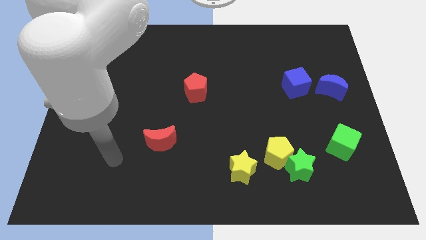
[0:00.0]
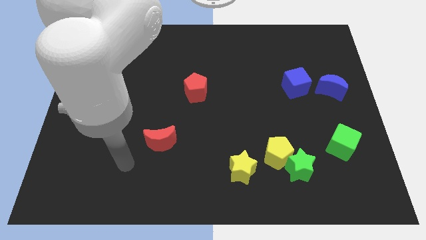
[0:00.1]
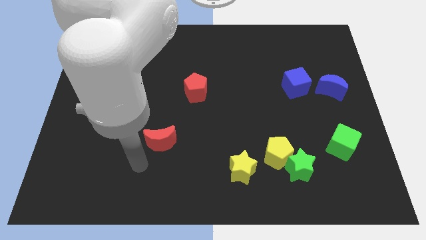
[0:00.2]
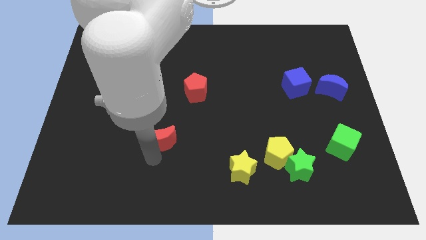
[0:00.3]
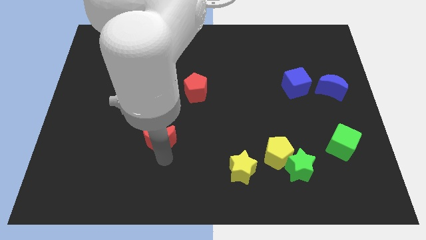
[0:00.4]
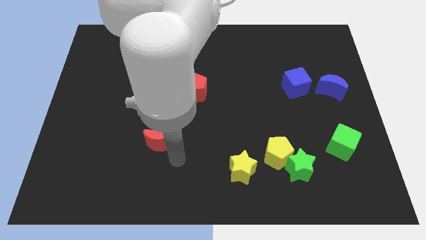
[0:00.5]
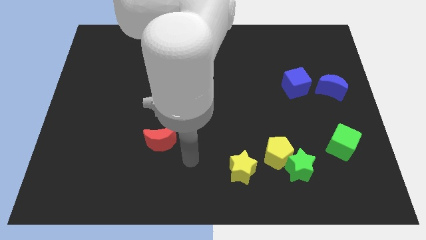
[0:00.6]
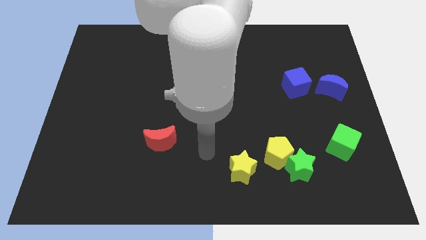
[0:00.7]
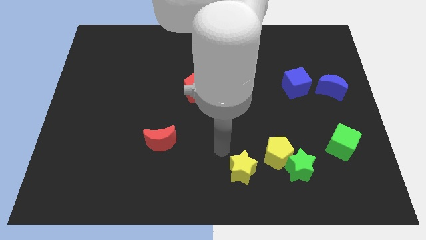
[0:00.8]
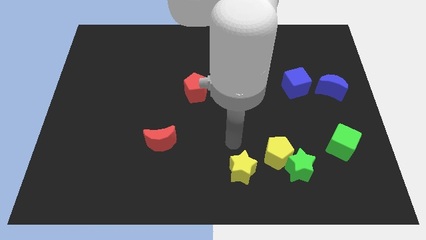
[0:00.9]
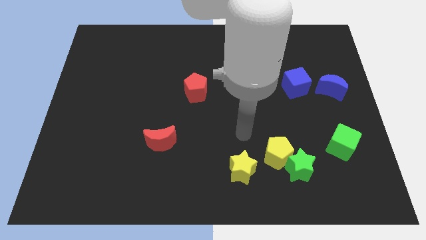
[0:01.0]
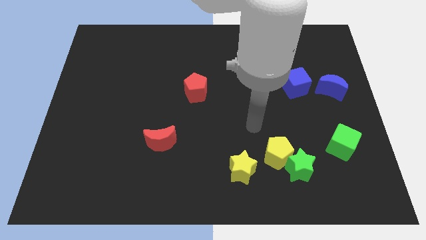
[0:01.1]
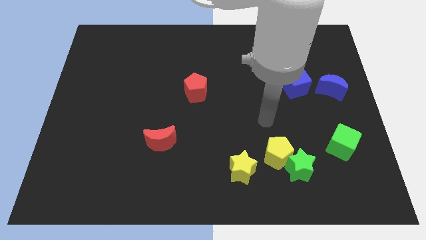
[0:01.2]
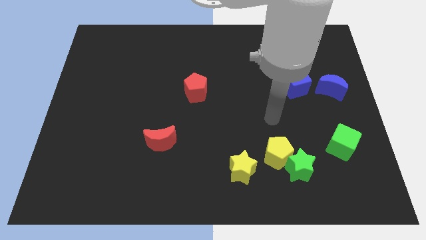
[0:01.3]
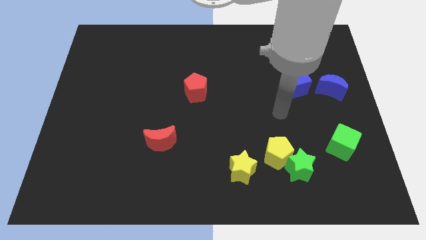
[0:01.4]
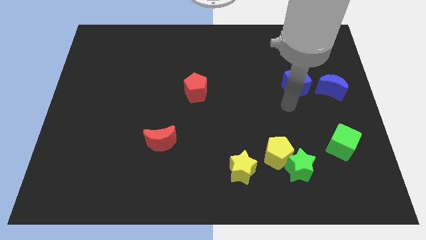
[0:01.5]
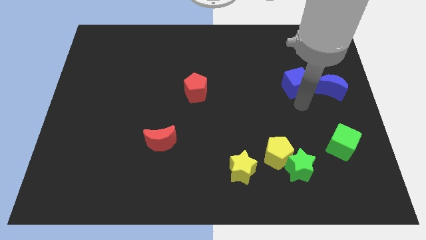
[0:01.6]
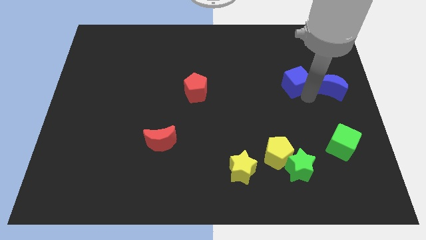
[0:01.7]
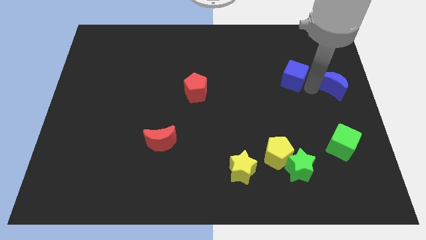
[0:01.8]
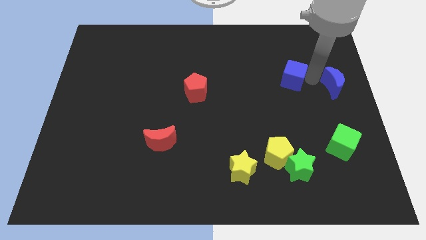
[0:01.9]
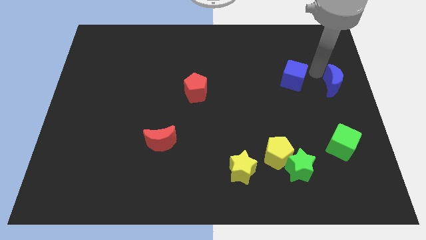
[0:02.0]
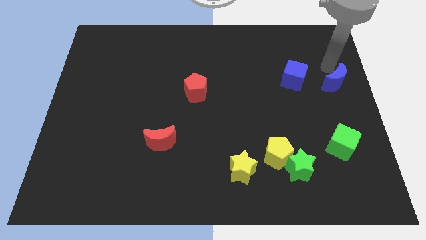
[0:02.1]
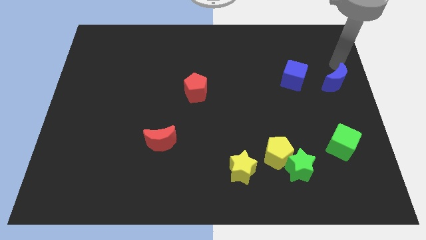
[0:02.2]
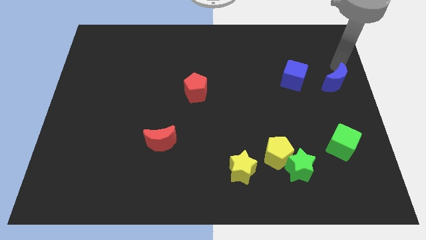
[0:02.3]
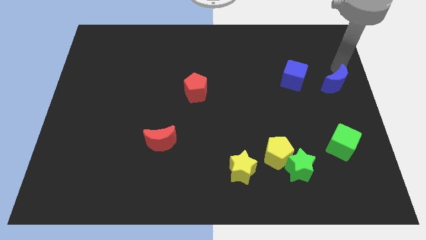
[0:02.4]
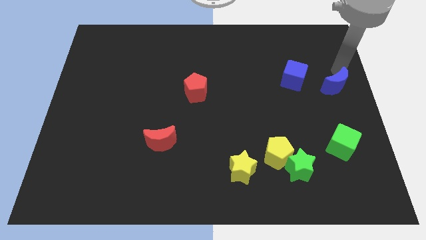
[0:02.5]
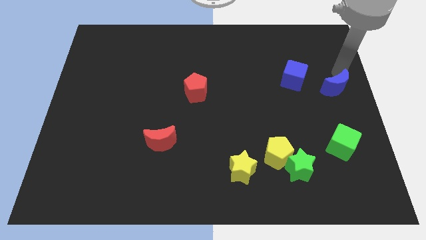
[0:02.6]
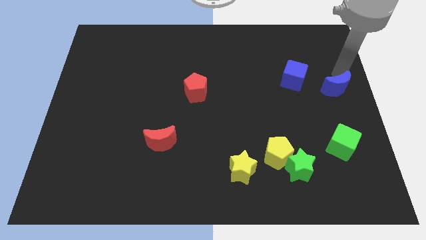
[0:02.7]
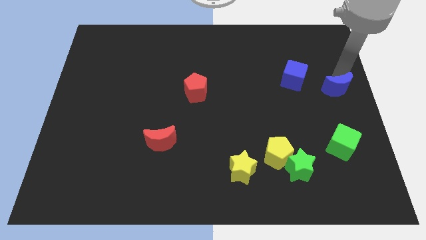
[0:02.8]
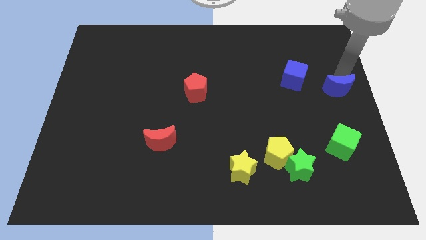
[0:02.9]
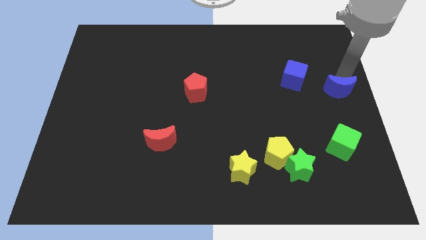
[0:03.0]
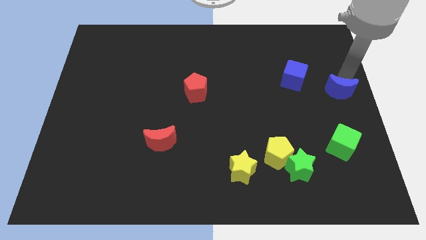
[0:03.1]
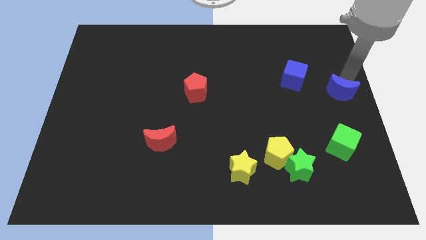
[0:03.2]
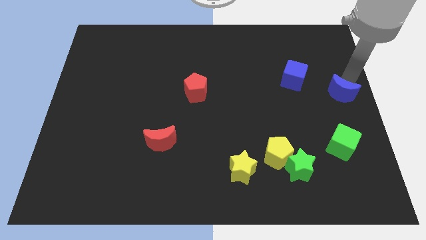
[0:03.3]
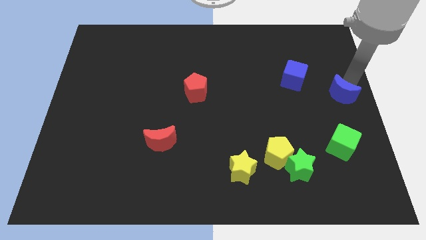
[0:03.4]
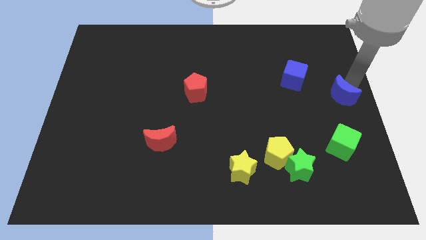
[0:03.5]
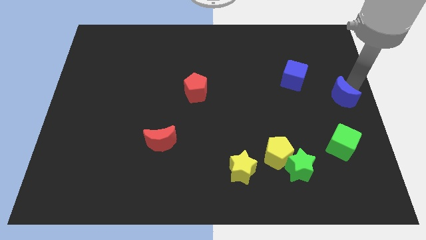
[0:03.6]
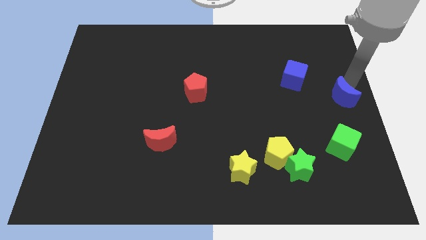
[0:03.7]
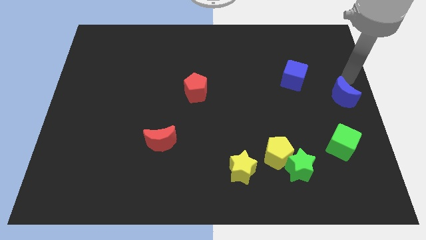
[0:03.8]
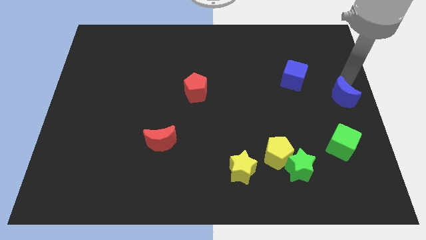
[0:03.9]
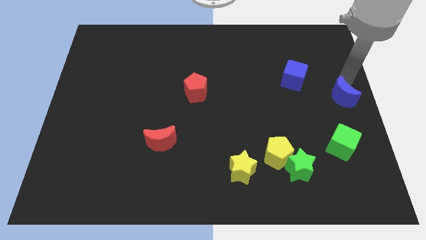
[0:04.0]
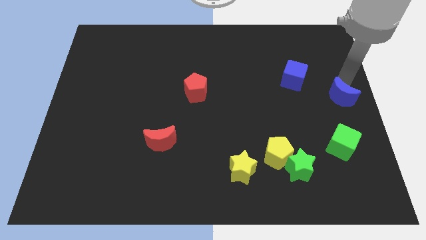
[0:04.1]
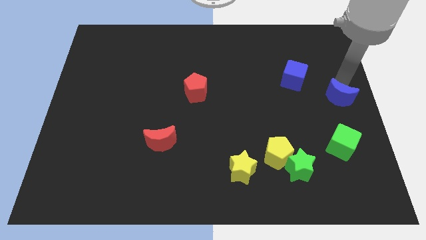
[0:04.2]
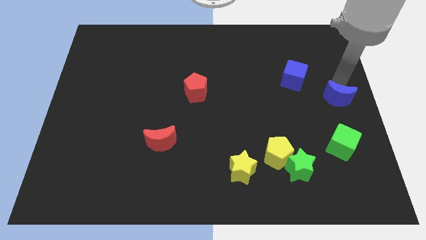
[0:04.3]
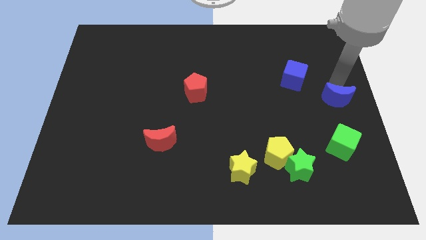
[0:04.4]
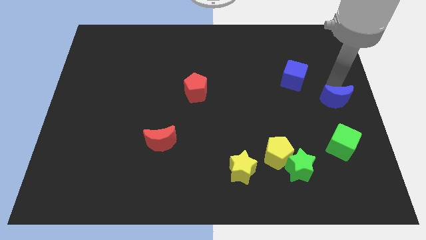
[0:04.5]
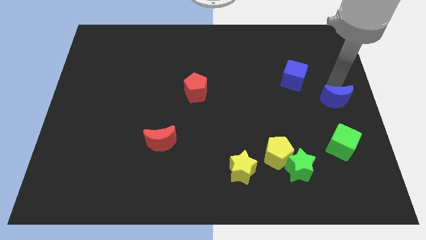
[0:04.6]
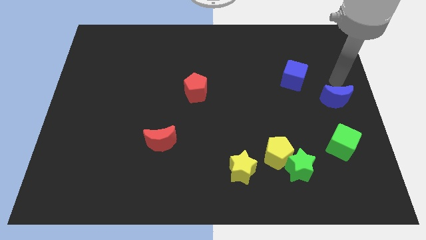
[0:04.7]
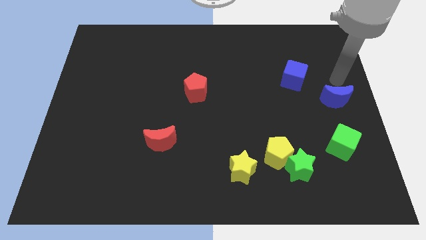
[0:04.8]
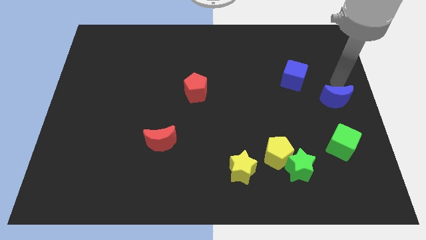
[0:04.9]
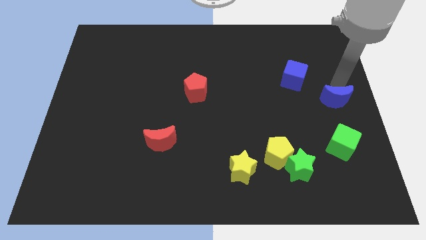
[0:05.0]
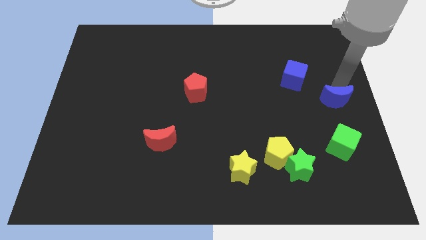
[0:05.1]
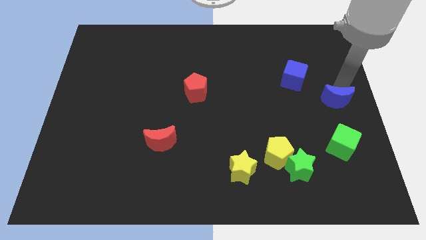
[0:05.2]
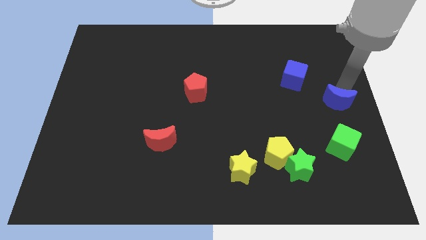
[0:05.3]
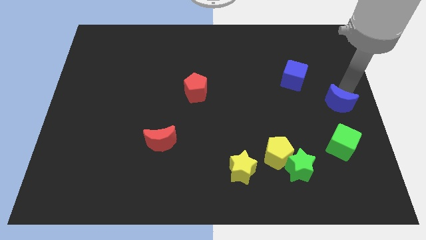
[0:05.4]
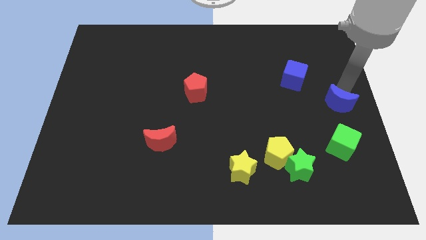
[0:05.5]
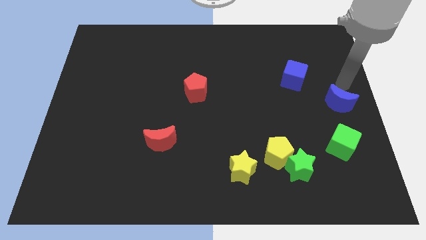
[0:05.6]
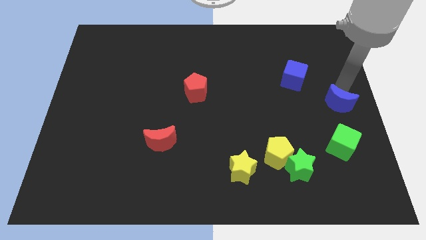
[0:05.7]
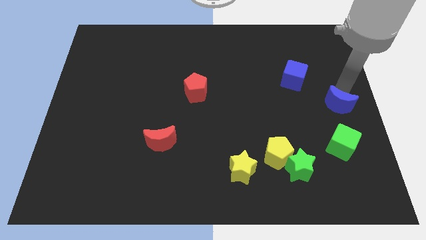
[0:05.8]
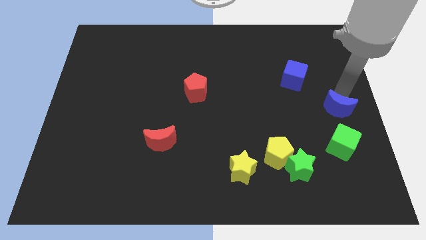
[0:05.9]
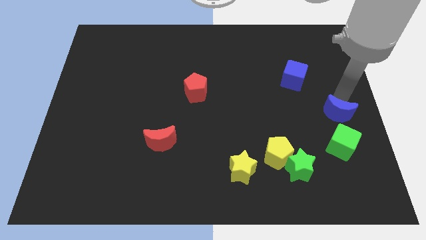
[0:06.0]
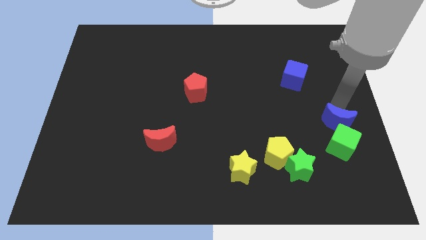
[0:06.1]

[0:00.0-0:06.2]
put the blue moon towards the green cube

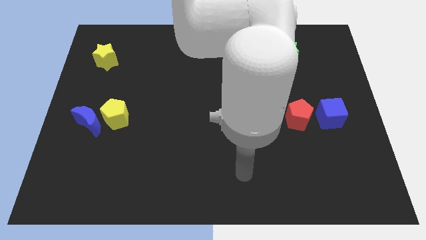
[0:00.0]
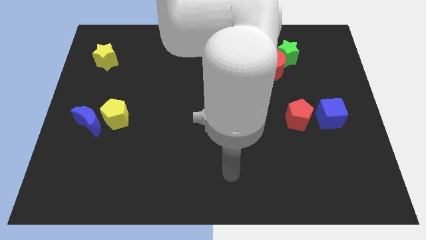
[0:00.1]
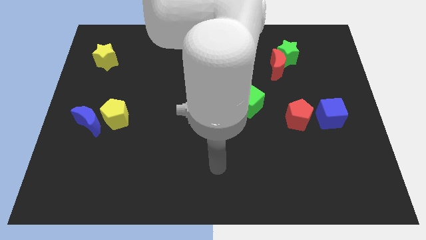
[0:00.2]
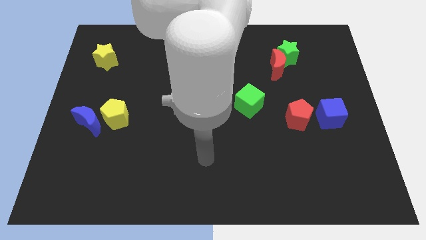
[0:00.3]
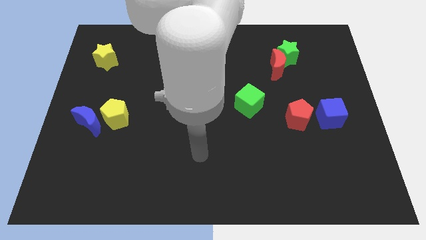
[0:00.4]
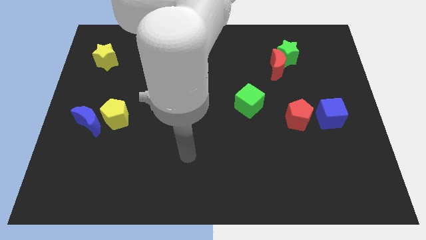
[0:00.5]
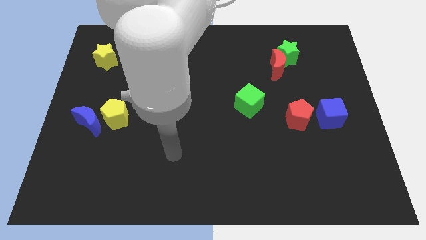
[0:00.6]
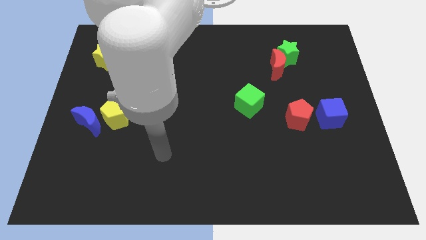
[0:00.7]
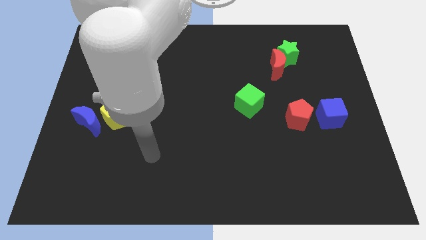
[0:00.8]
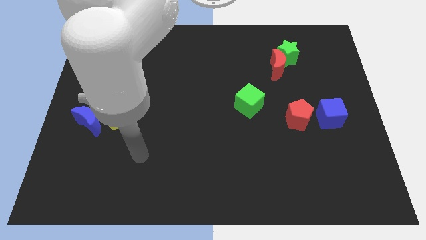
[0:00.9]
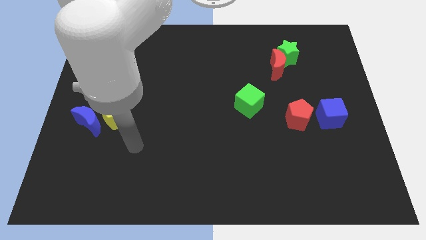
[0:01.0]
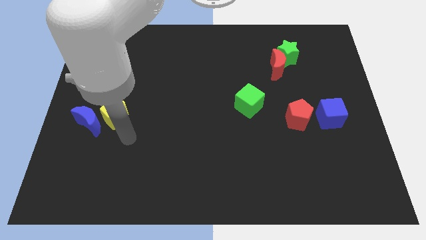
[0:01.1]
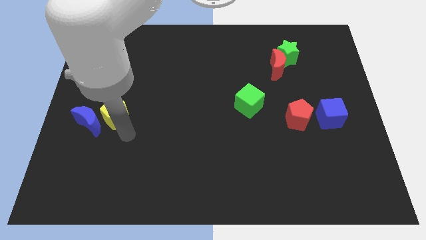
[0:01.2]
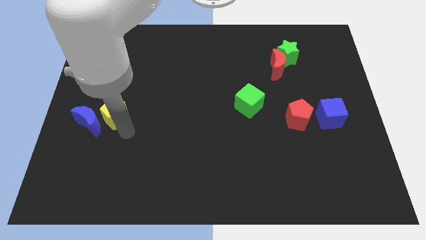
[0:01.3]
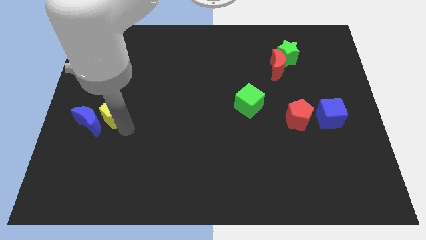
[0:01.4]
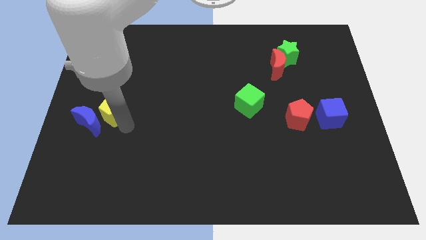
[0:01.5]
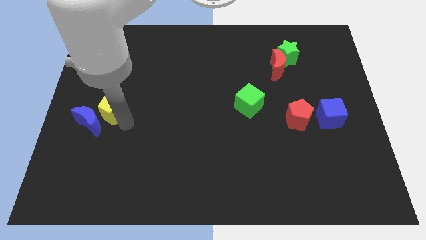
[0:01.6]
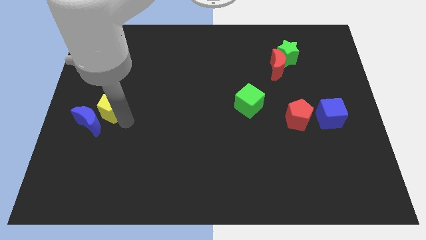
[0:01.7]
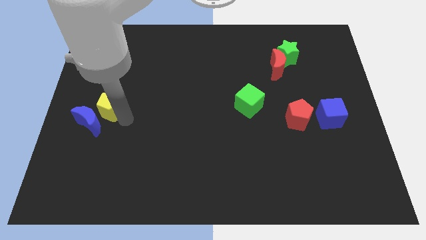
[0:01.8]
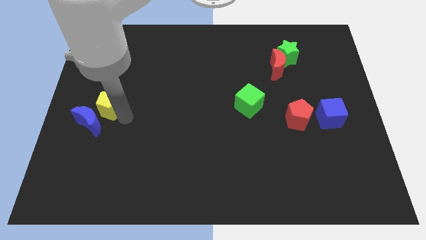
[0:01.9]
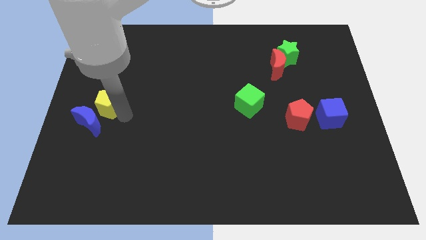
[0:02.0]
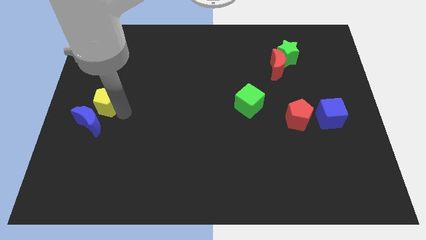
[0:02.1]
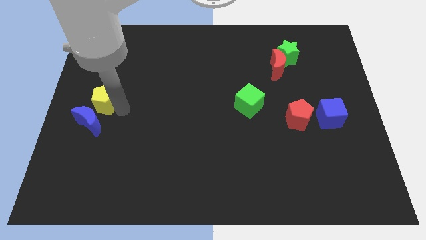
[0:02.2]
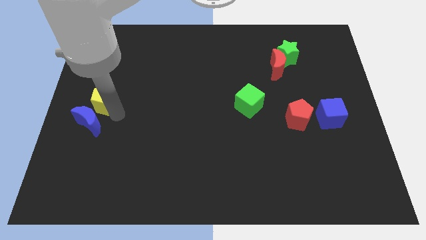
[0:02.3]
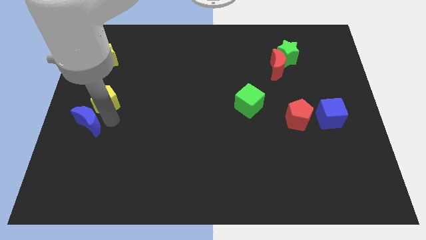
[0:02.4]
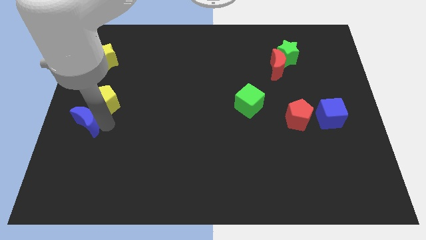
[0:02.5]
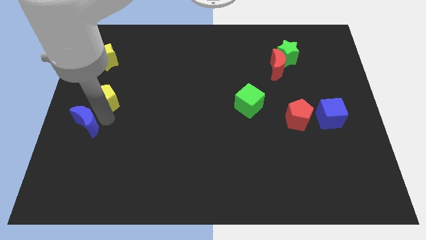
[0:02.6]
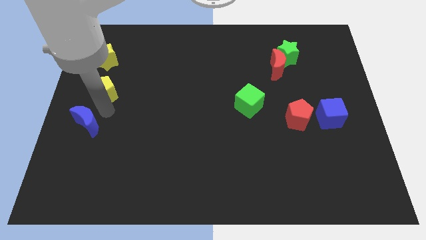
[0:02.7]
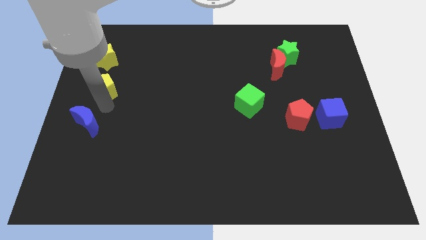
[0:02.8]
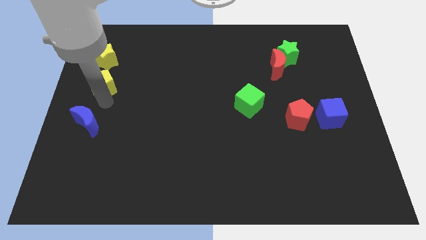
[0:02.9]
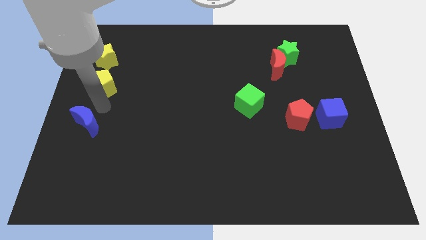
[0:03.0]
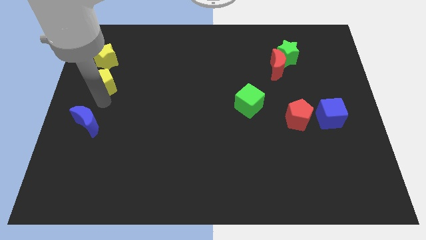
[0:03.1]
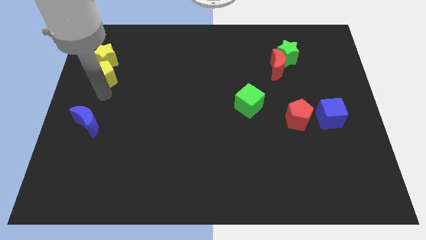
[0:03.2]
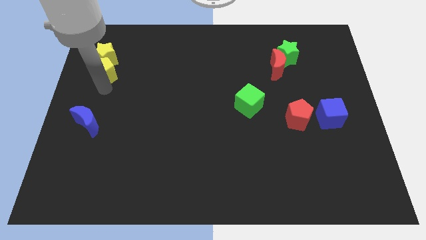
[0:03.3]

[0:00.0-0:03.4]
put the yellow pentagon towards the yellow star
